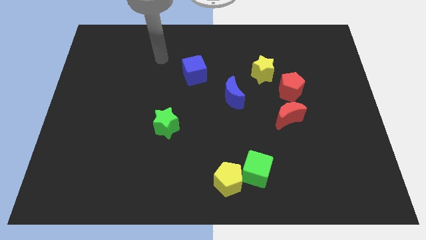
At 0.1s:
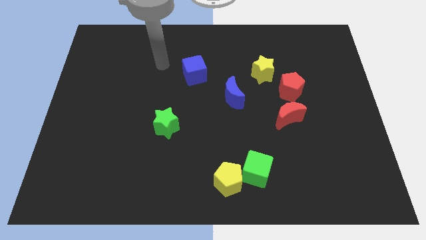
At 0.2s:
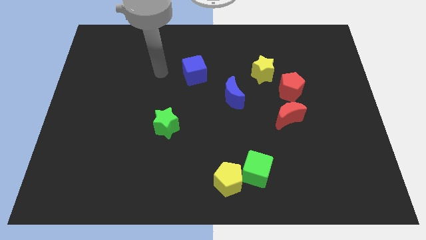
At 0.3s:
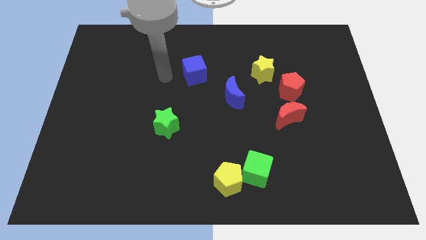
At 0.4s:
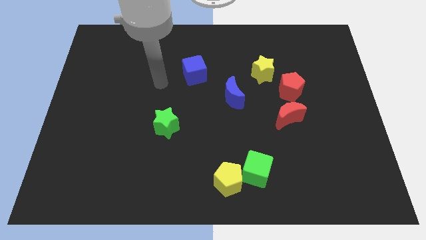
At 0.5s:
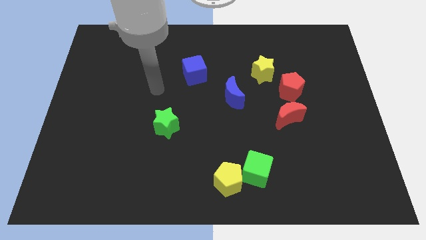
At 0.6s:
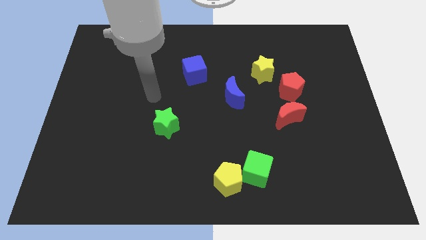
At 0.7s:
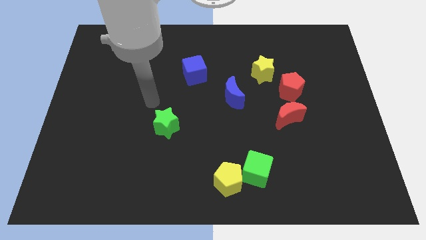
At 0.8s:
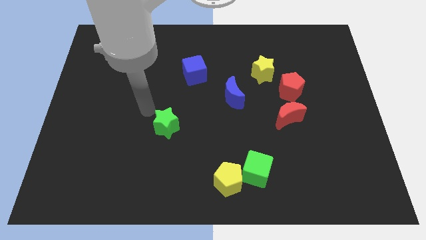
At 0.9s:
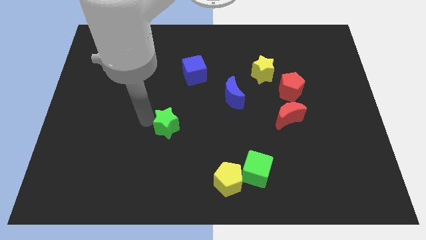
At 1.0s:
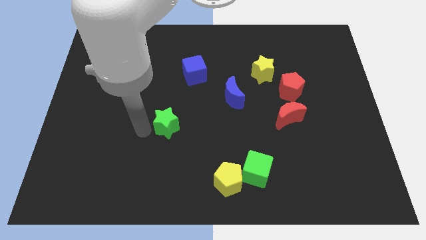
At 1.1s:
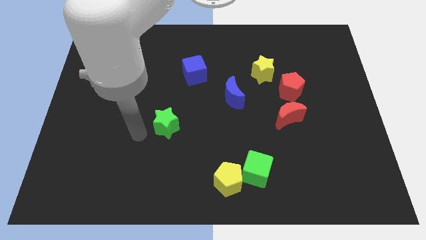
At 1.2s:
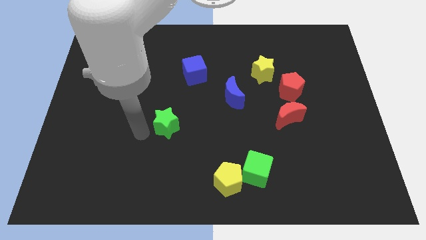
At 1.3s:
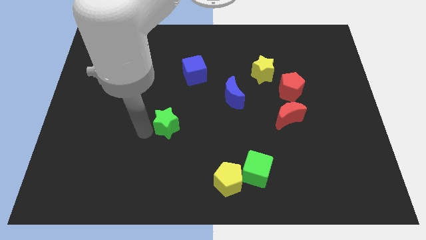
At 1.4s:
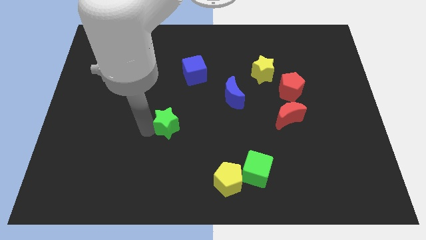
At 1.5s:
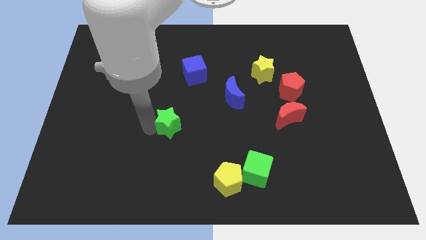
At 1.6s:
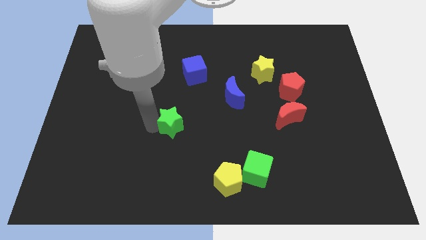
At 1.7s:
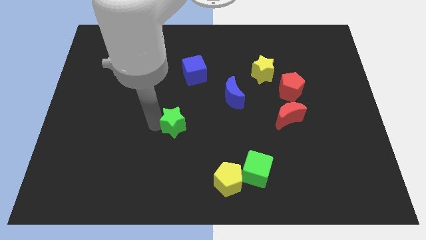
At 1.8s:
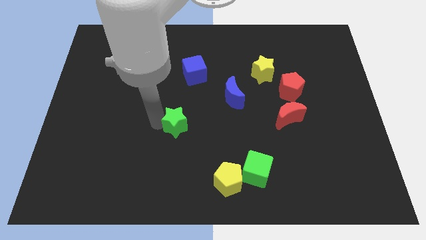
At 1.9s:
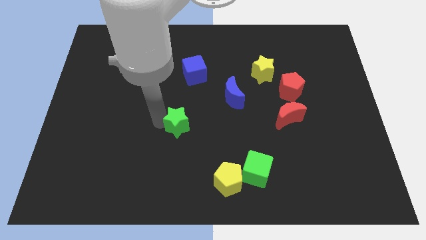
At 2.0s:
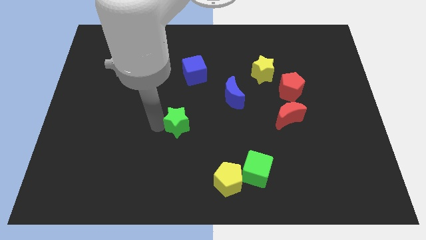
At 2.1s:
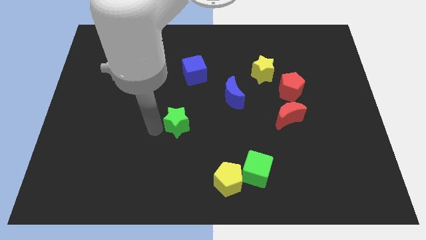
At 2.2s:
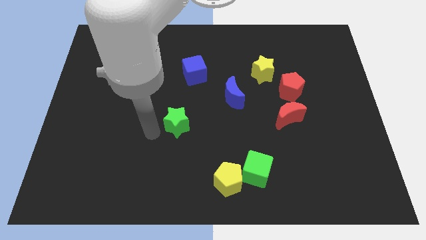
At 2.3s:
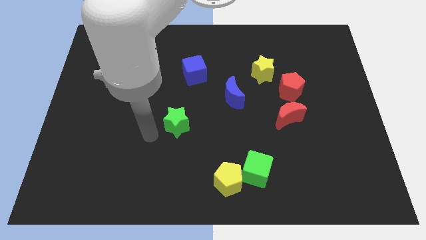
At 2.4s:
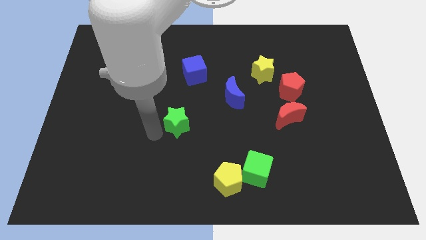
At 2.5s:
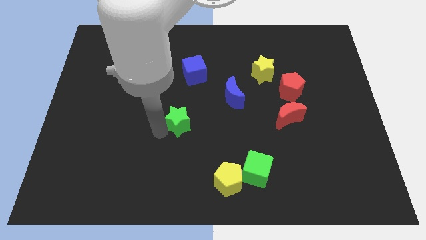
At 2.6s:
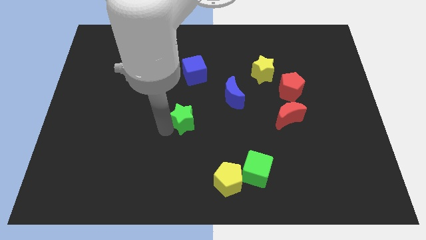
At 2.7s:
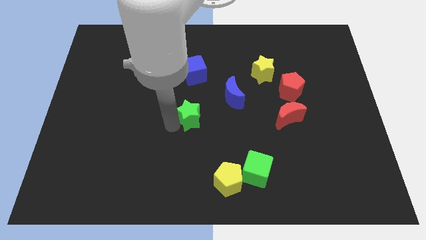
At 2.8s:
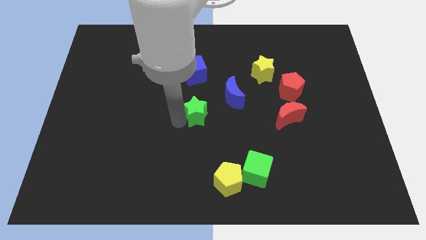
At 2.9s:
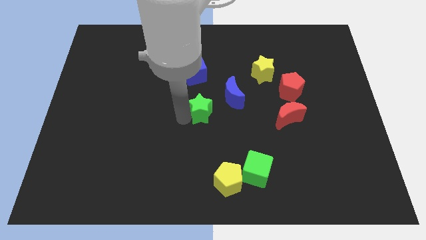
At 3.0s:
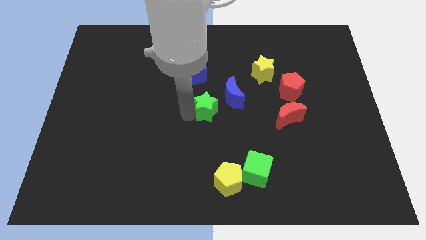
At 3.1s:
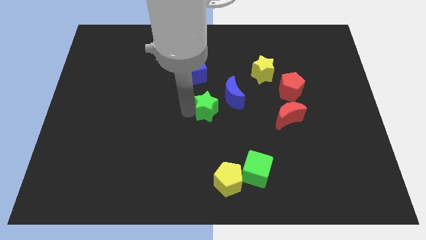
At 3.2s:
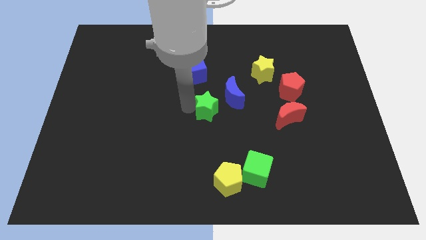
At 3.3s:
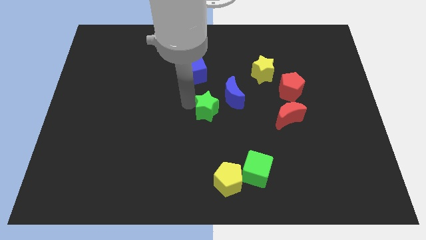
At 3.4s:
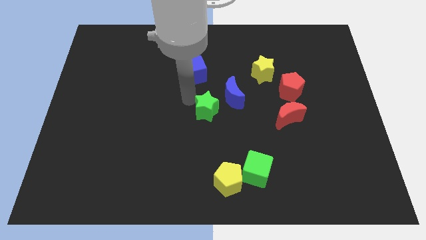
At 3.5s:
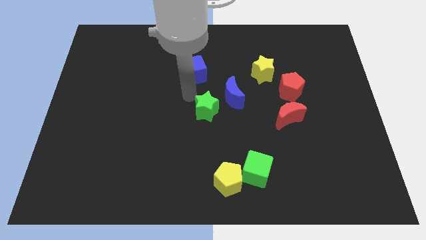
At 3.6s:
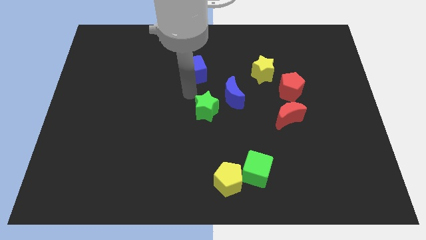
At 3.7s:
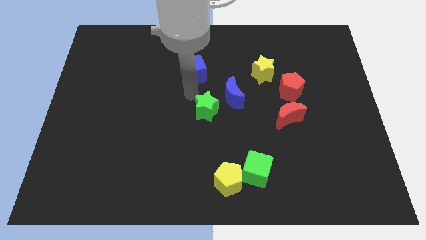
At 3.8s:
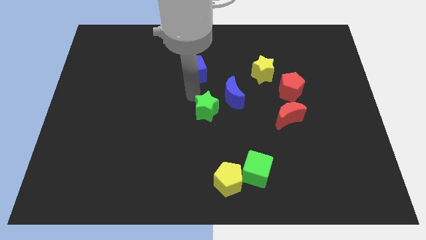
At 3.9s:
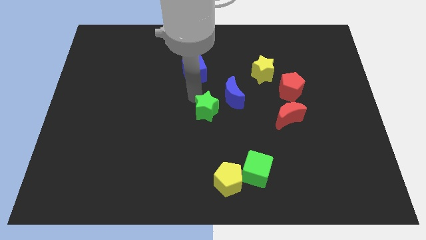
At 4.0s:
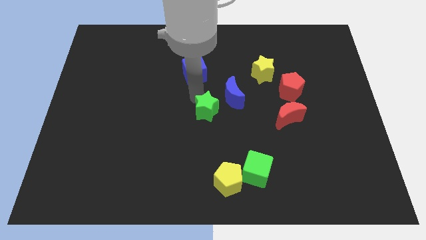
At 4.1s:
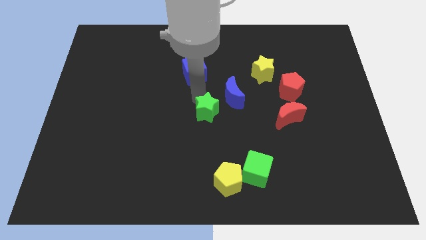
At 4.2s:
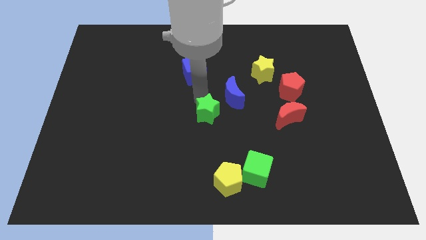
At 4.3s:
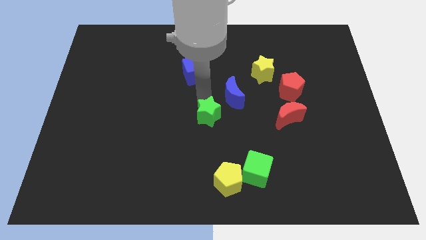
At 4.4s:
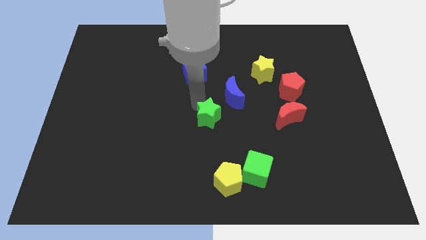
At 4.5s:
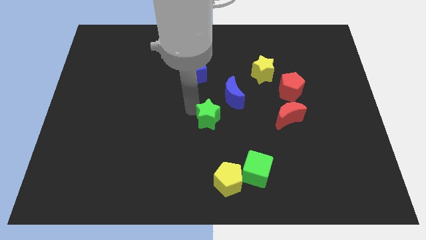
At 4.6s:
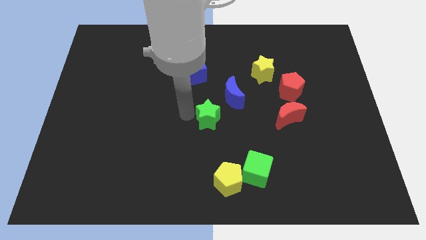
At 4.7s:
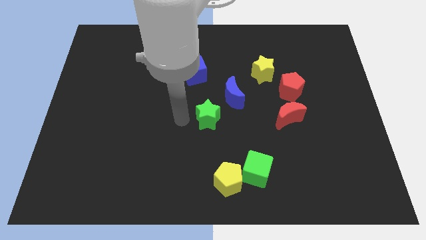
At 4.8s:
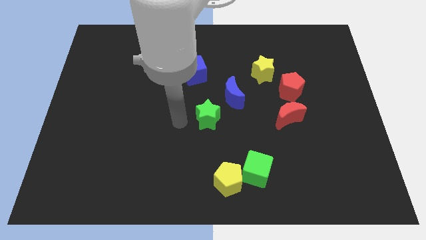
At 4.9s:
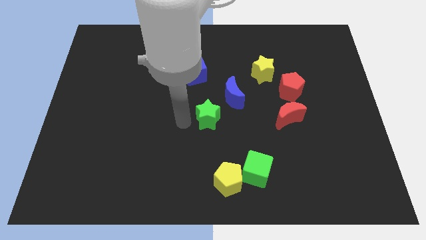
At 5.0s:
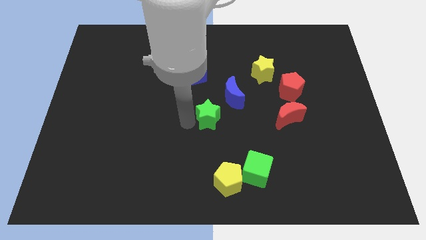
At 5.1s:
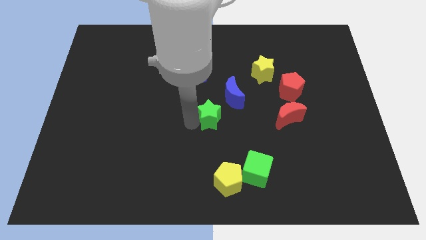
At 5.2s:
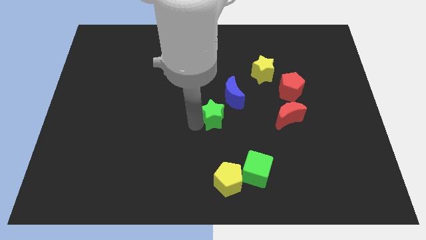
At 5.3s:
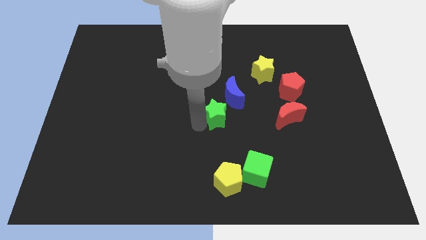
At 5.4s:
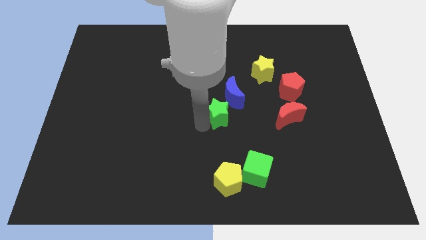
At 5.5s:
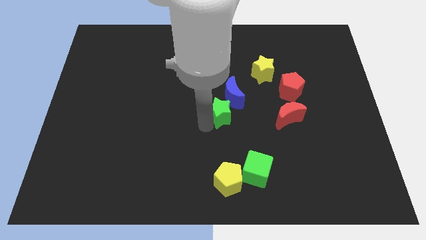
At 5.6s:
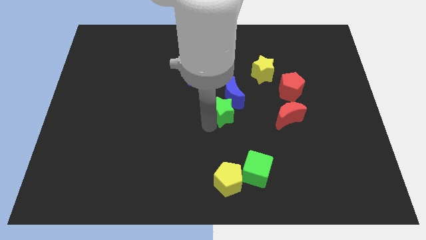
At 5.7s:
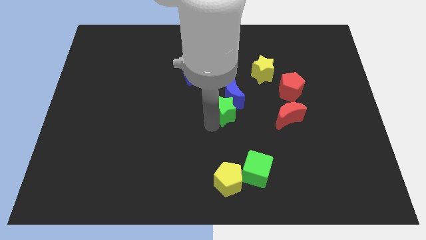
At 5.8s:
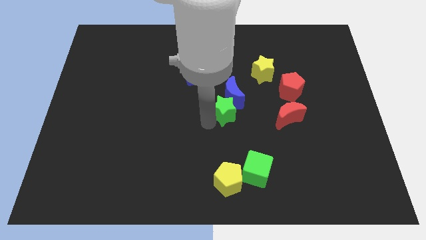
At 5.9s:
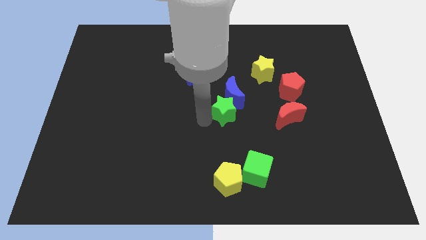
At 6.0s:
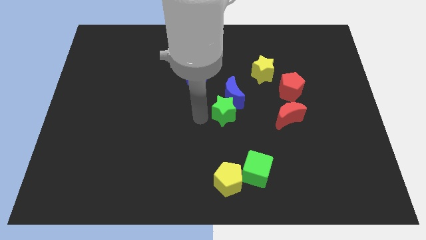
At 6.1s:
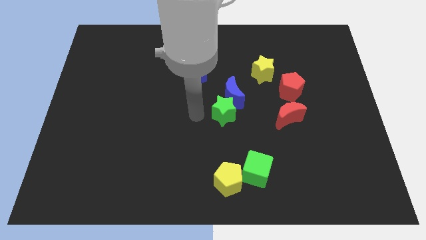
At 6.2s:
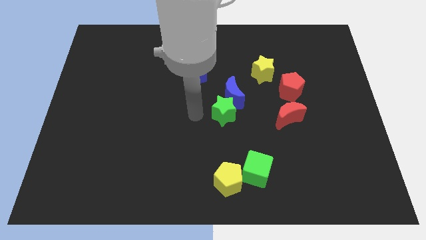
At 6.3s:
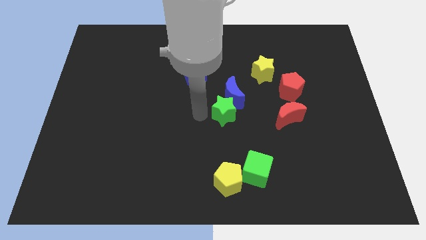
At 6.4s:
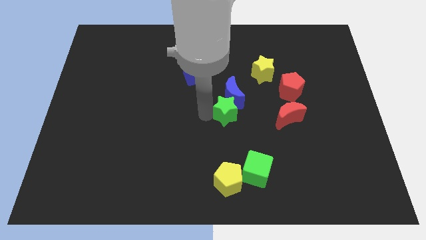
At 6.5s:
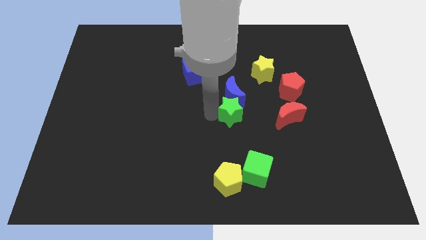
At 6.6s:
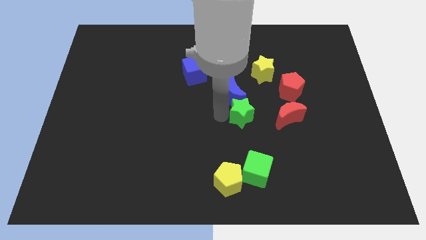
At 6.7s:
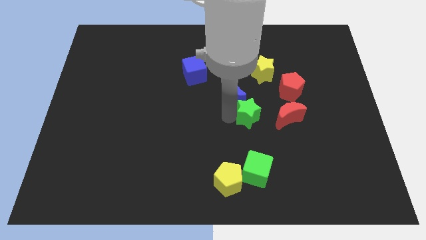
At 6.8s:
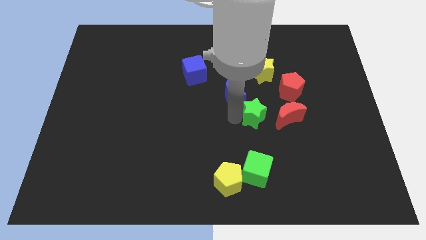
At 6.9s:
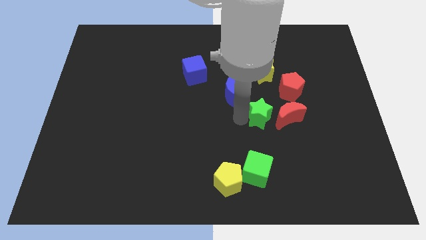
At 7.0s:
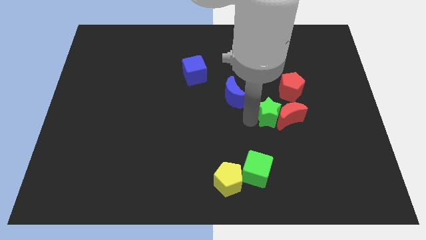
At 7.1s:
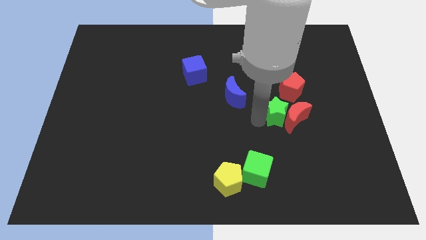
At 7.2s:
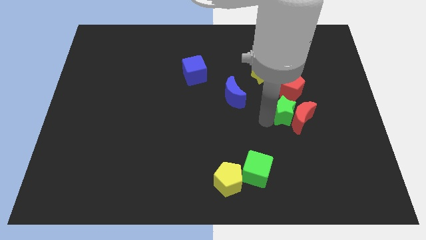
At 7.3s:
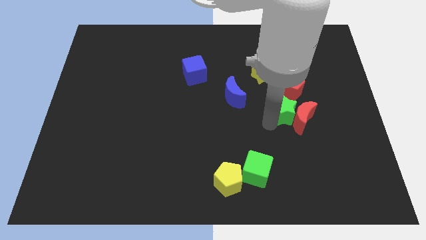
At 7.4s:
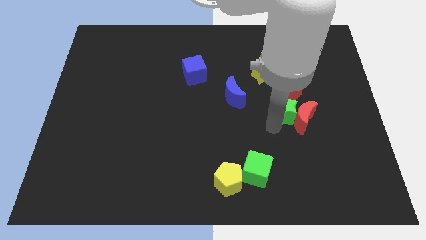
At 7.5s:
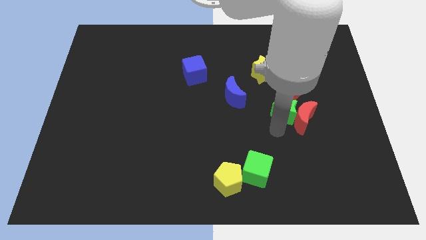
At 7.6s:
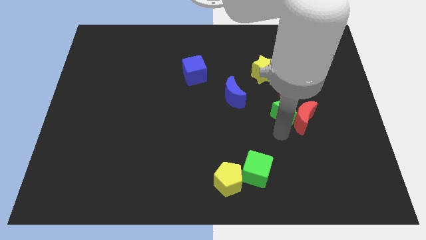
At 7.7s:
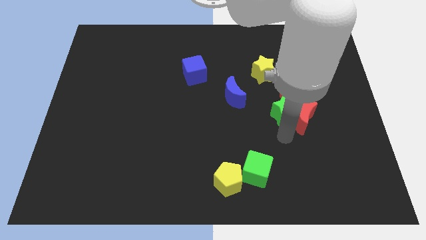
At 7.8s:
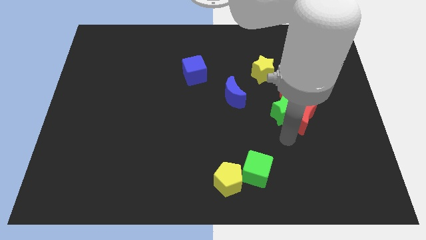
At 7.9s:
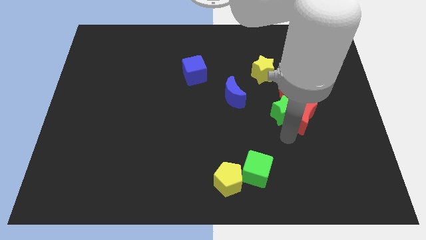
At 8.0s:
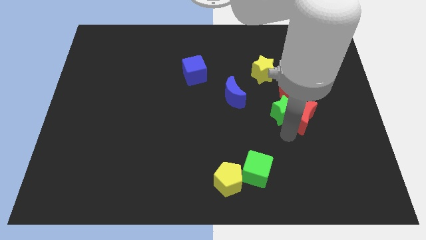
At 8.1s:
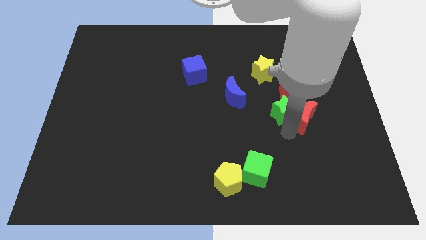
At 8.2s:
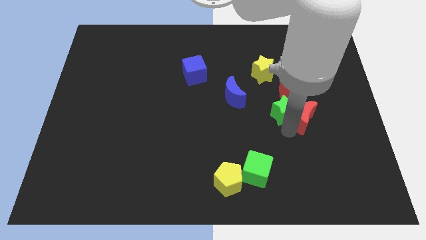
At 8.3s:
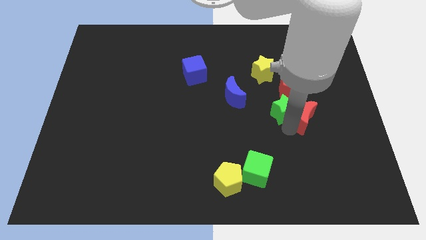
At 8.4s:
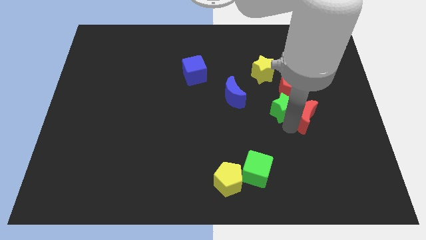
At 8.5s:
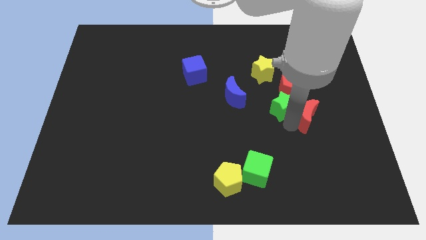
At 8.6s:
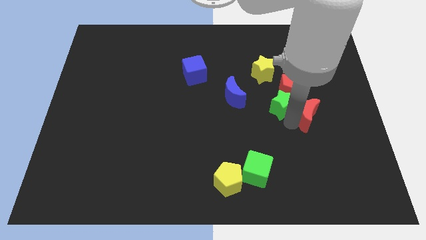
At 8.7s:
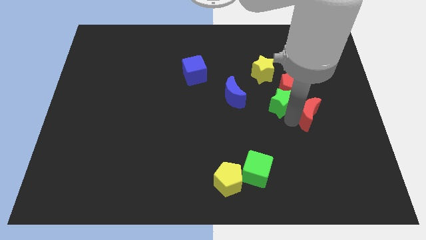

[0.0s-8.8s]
put the green star close to the red pentagon
